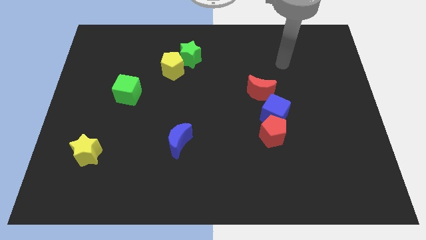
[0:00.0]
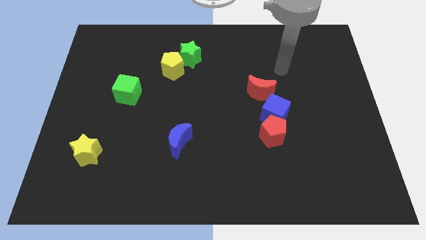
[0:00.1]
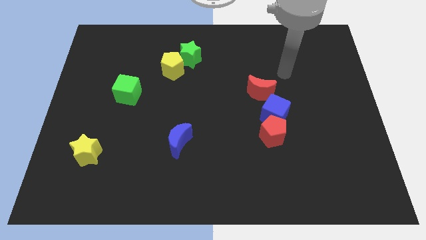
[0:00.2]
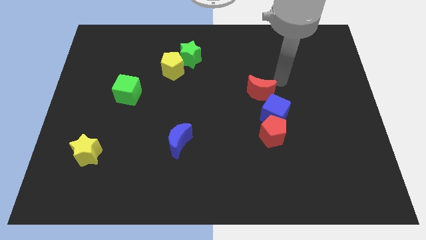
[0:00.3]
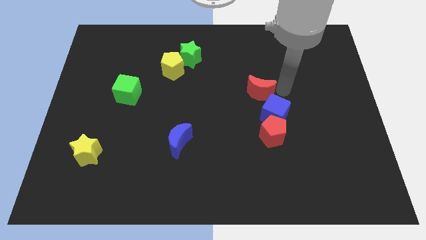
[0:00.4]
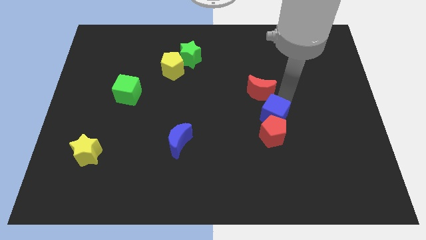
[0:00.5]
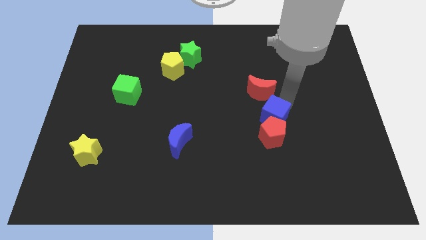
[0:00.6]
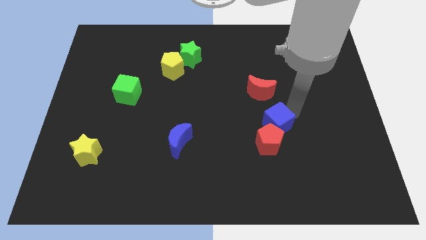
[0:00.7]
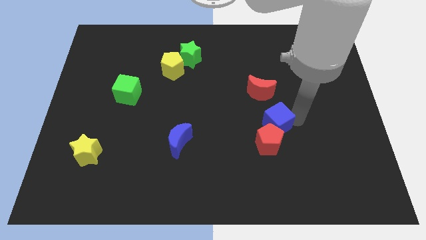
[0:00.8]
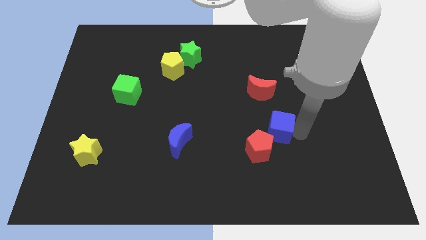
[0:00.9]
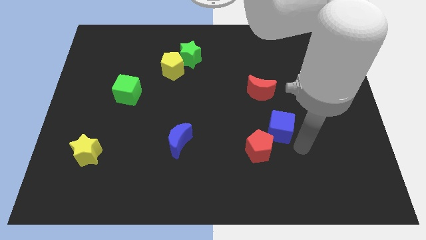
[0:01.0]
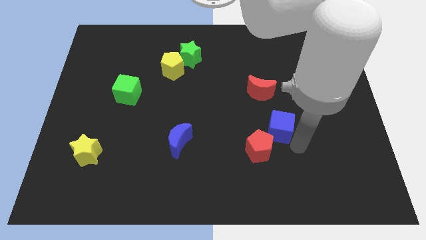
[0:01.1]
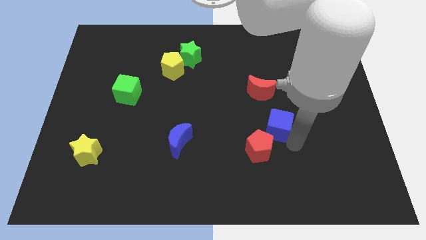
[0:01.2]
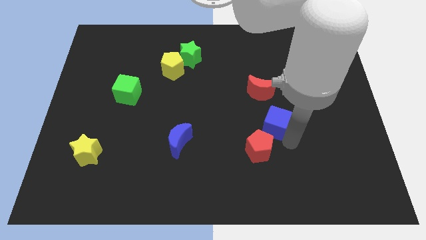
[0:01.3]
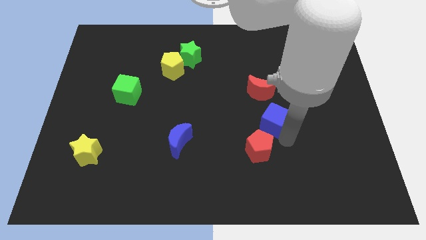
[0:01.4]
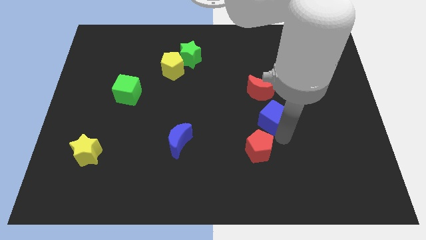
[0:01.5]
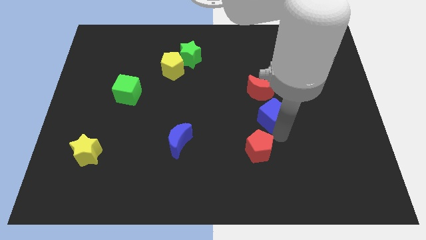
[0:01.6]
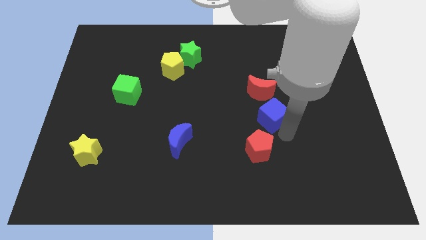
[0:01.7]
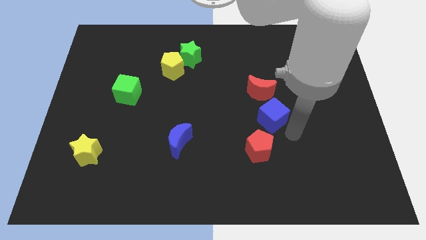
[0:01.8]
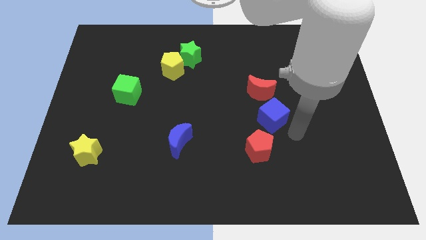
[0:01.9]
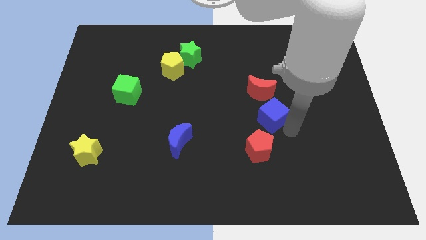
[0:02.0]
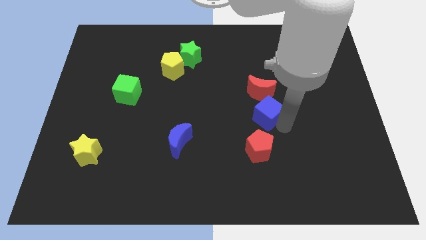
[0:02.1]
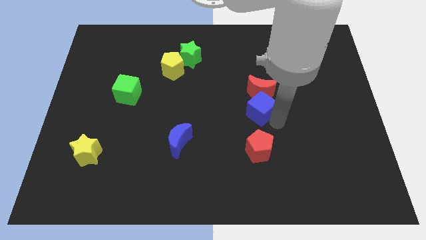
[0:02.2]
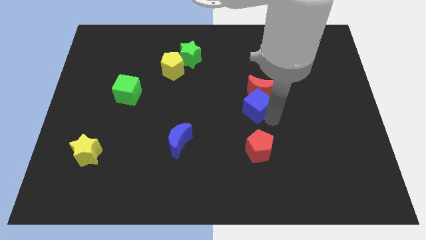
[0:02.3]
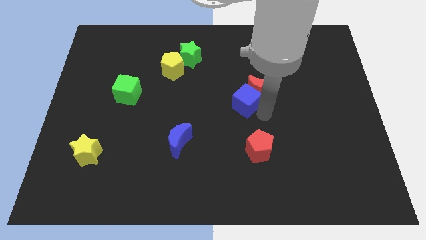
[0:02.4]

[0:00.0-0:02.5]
slide the blue cube a bit diagonally up and to the left

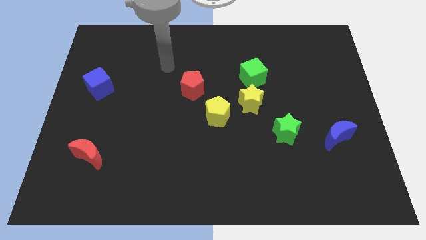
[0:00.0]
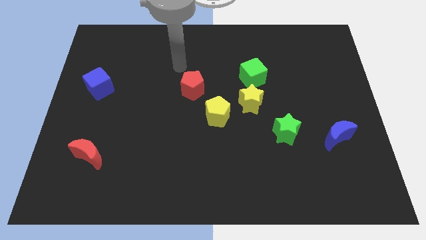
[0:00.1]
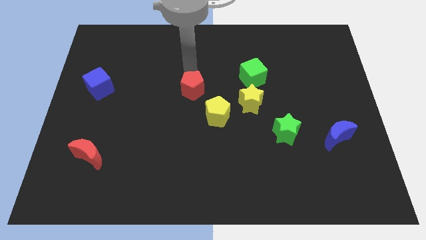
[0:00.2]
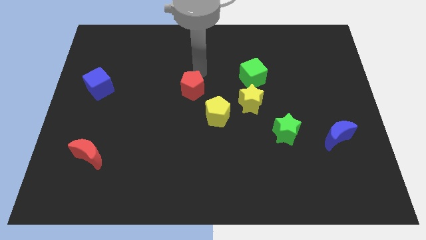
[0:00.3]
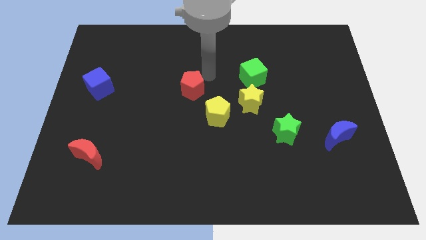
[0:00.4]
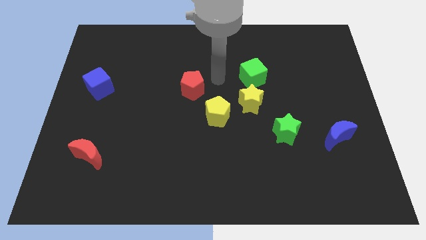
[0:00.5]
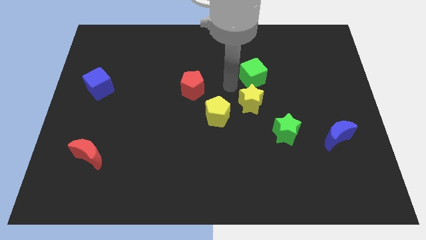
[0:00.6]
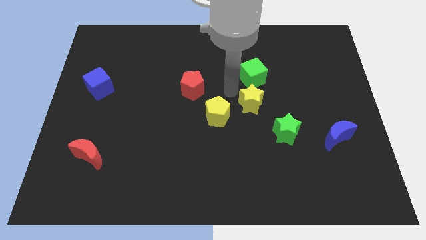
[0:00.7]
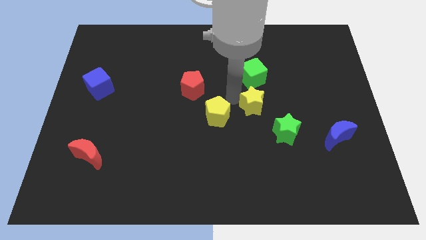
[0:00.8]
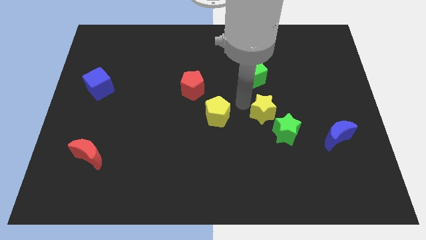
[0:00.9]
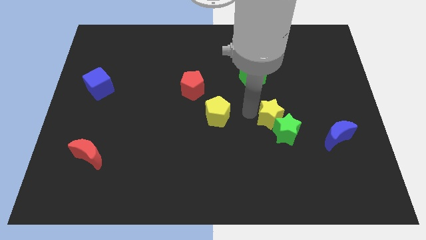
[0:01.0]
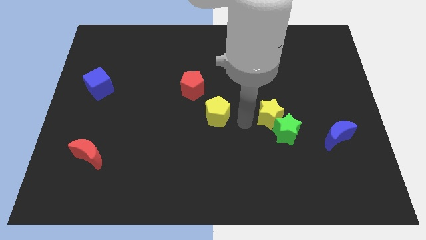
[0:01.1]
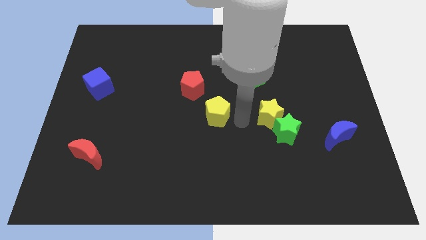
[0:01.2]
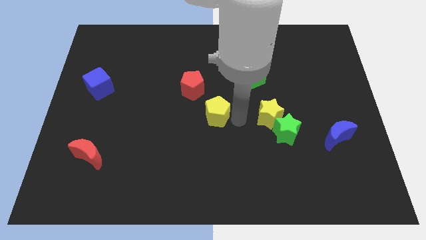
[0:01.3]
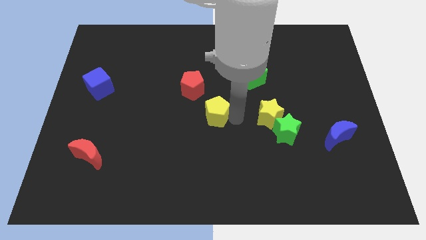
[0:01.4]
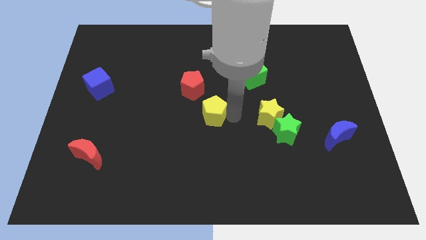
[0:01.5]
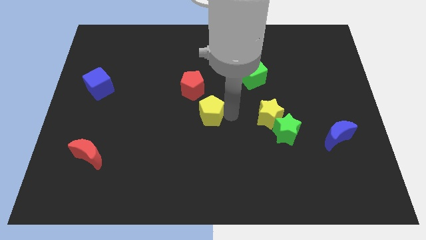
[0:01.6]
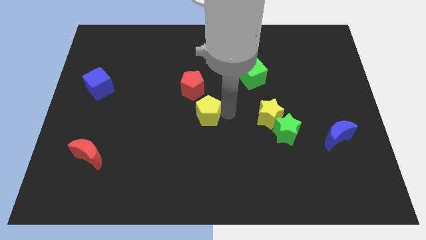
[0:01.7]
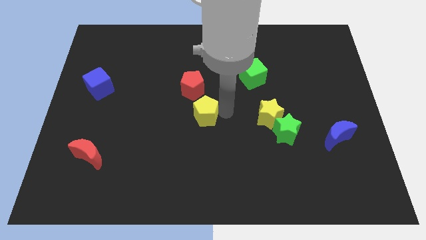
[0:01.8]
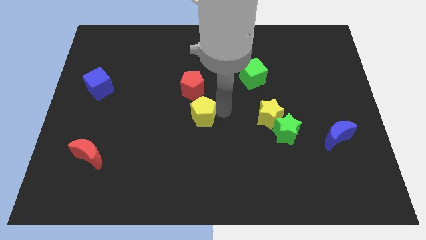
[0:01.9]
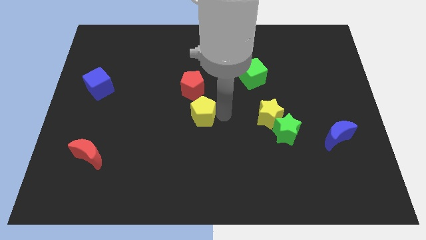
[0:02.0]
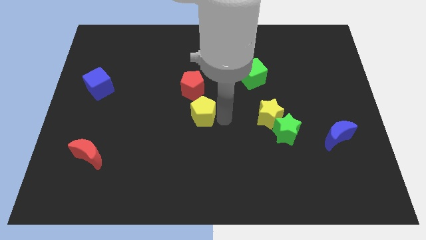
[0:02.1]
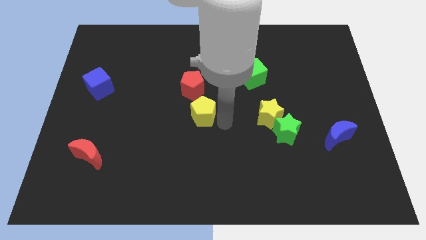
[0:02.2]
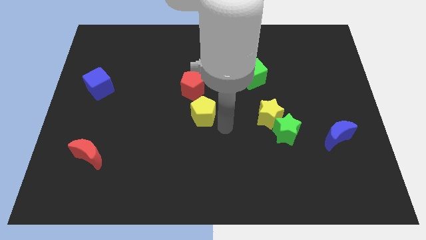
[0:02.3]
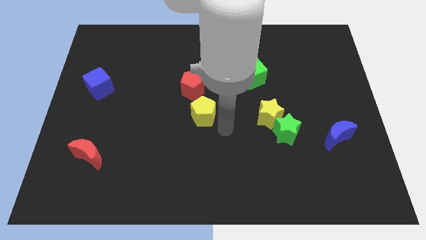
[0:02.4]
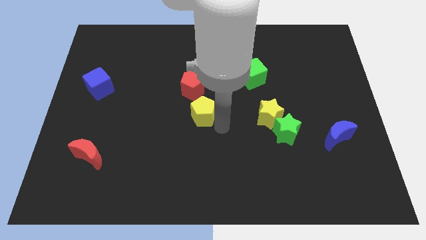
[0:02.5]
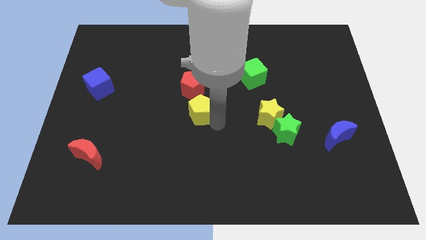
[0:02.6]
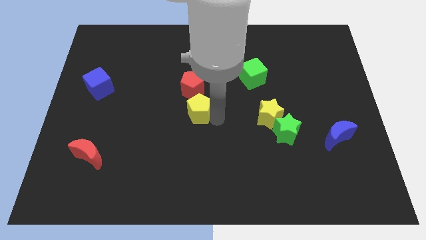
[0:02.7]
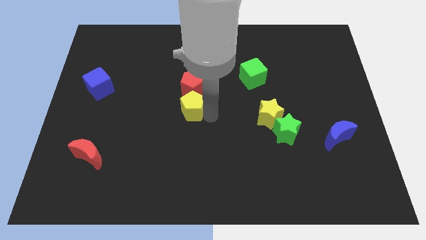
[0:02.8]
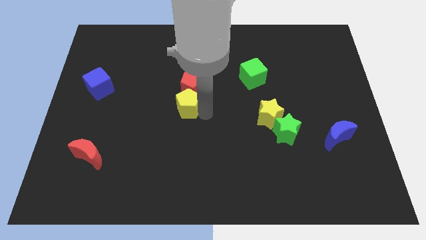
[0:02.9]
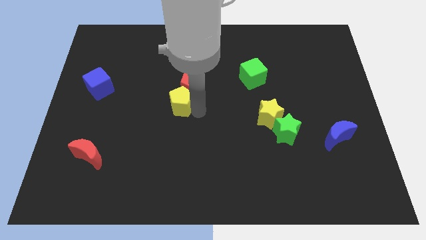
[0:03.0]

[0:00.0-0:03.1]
slightly slide the yellow pentagon up and to the left diagonally

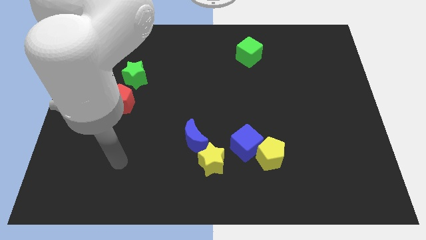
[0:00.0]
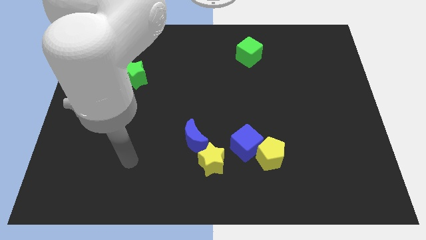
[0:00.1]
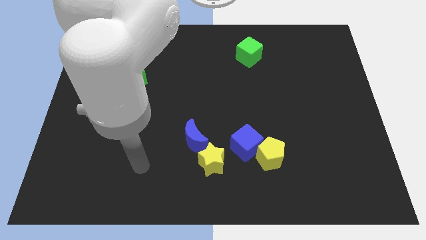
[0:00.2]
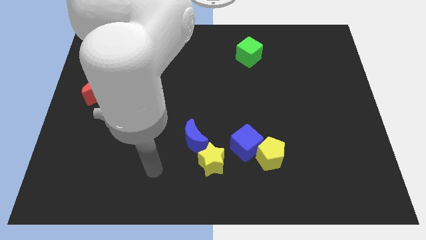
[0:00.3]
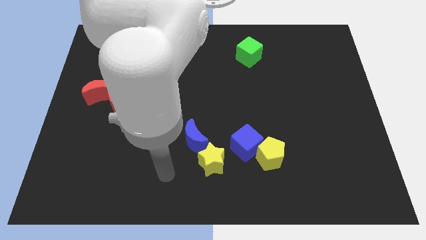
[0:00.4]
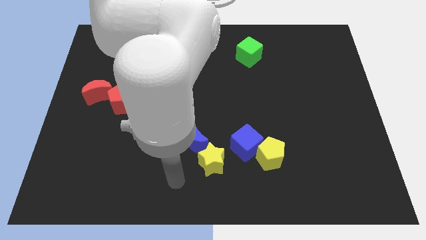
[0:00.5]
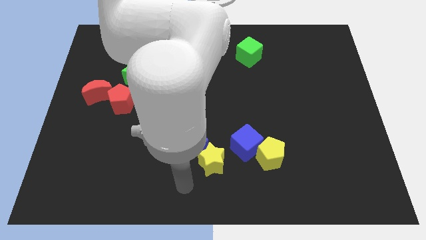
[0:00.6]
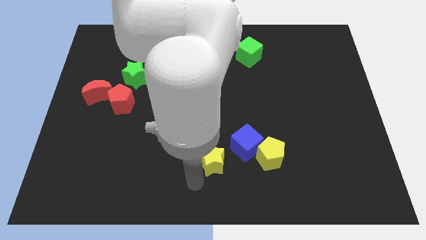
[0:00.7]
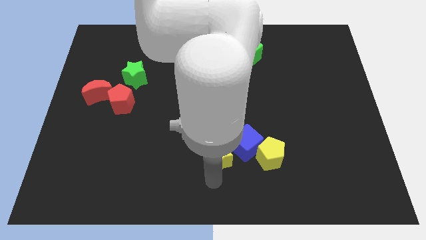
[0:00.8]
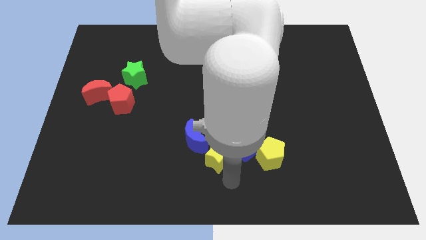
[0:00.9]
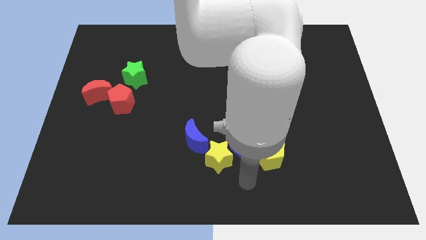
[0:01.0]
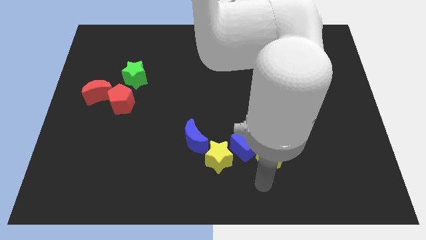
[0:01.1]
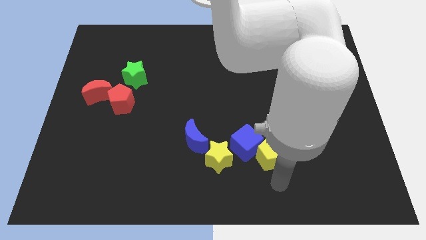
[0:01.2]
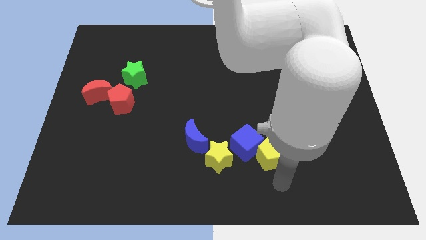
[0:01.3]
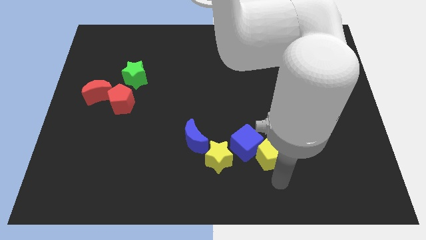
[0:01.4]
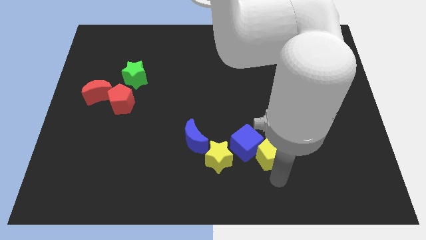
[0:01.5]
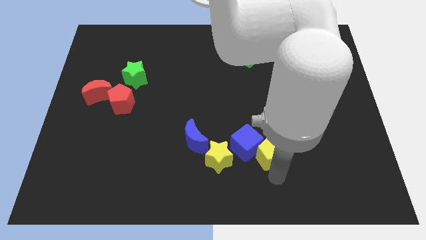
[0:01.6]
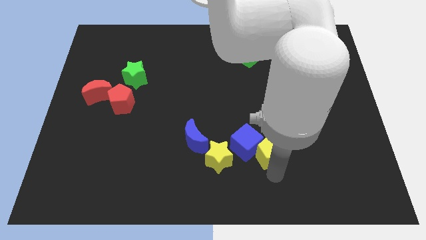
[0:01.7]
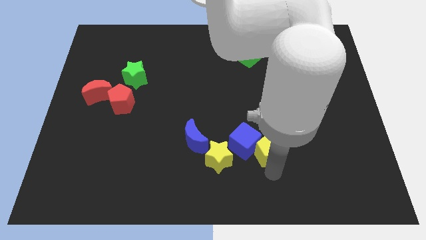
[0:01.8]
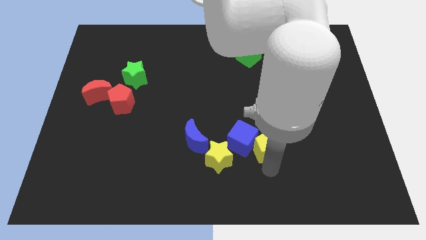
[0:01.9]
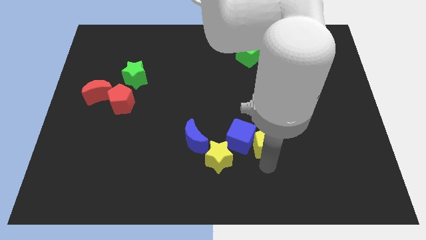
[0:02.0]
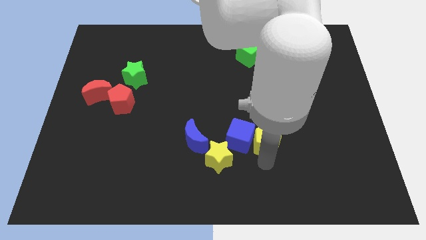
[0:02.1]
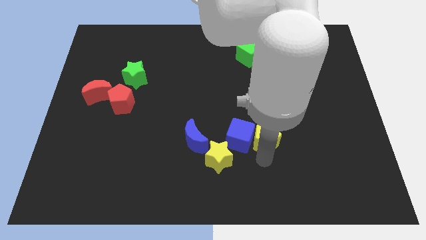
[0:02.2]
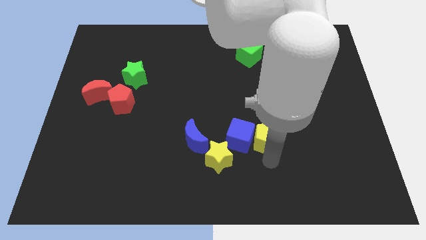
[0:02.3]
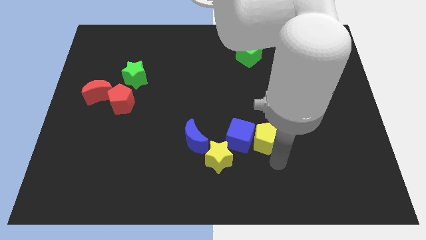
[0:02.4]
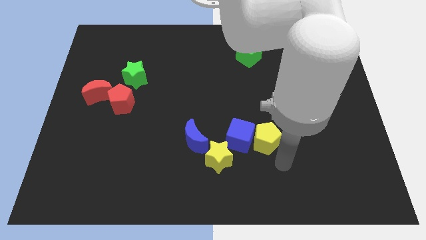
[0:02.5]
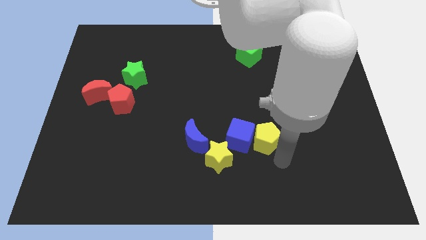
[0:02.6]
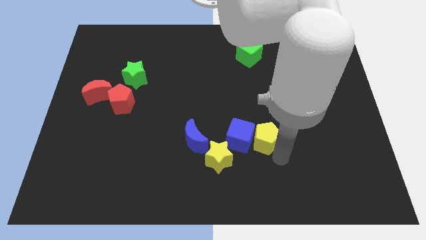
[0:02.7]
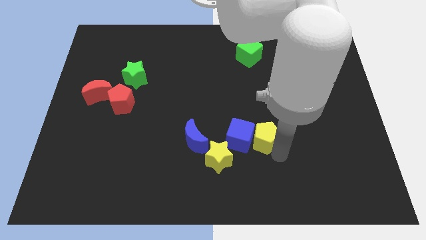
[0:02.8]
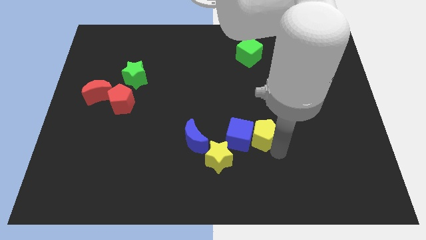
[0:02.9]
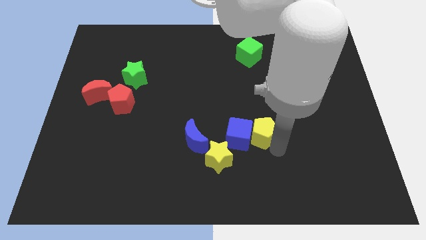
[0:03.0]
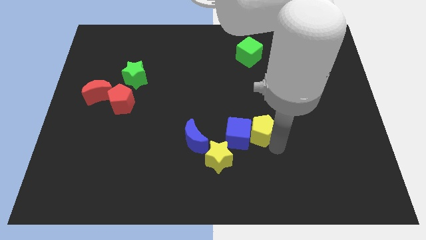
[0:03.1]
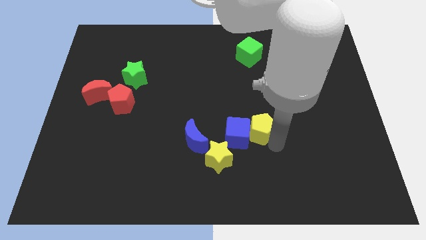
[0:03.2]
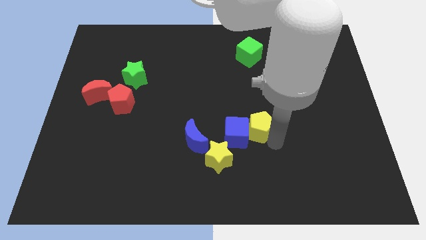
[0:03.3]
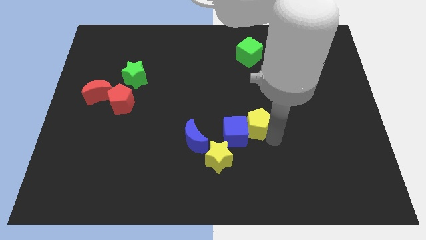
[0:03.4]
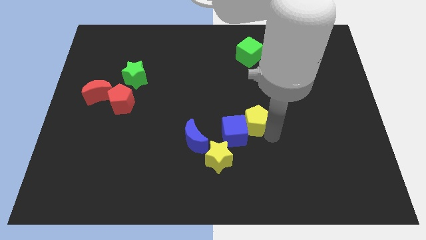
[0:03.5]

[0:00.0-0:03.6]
slightly slide the yellow pentagon upwards and then left
